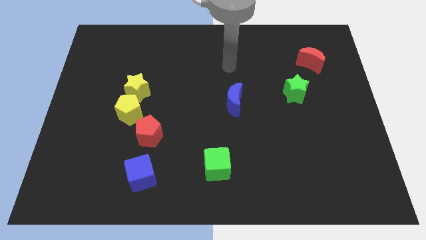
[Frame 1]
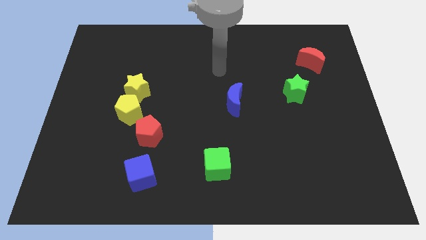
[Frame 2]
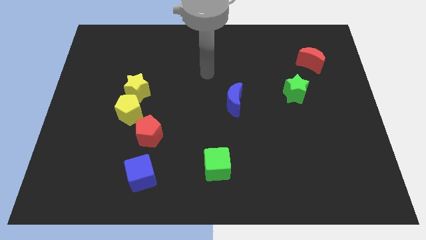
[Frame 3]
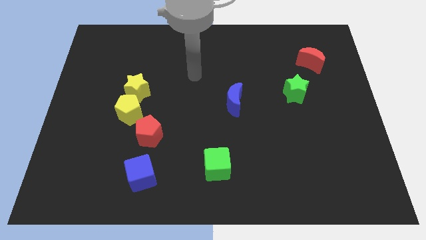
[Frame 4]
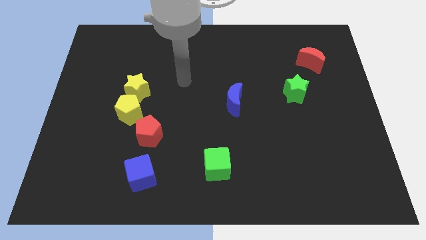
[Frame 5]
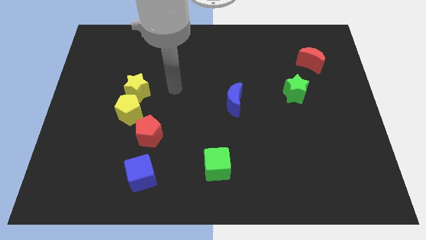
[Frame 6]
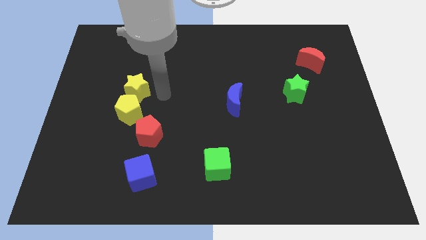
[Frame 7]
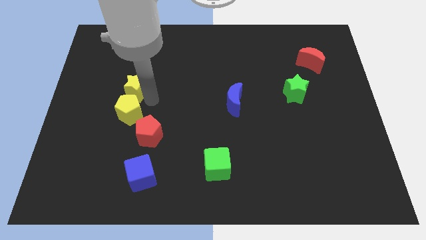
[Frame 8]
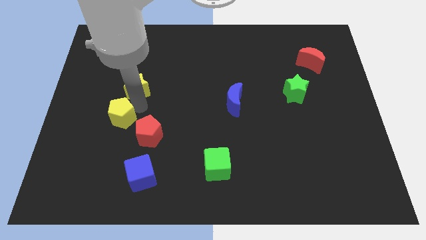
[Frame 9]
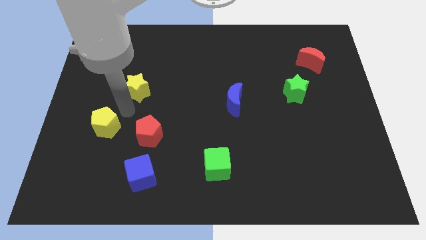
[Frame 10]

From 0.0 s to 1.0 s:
pull the yellow star apart from the yellow pentagon

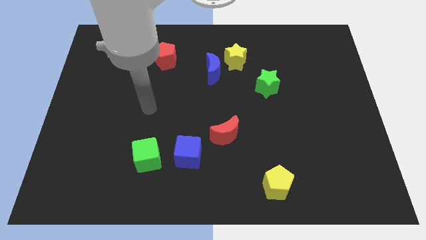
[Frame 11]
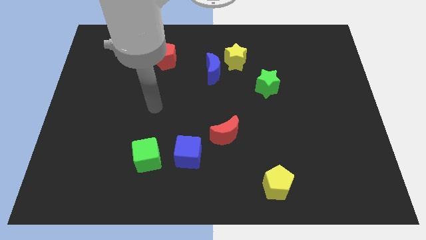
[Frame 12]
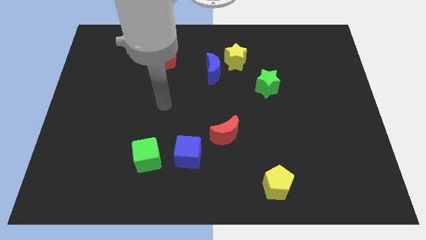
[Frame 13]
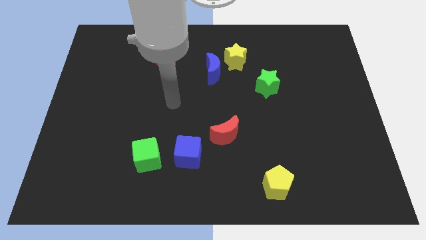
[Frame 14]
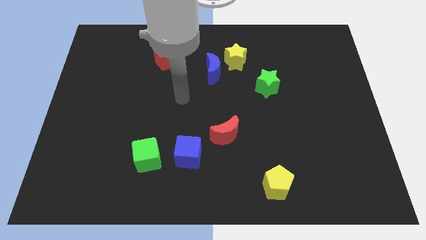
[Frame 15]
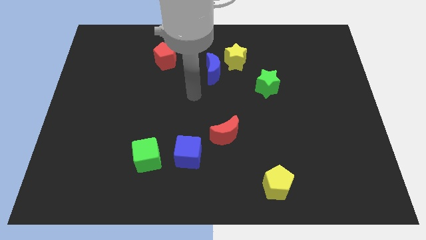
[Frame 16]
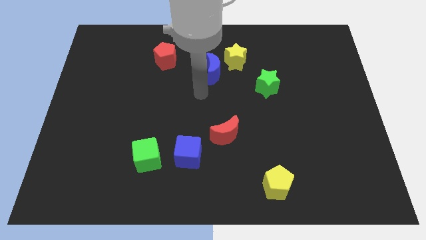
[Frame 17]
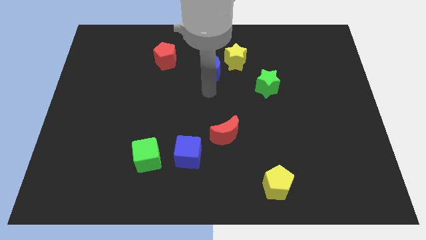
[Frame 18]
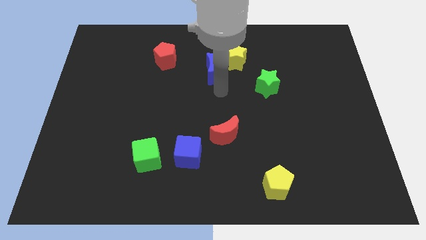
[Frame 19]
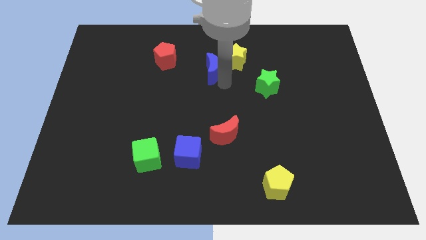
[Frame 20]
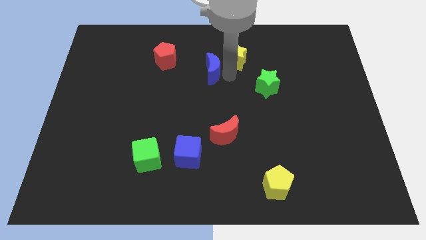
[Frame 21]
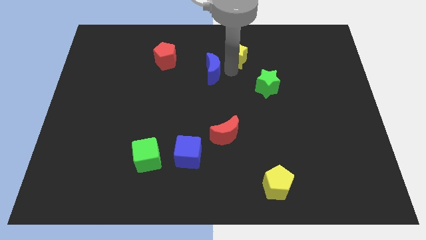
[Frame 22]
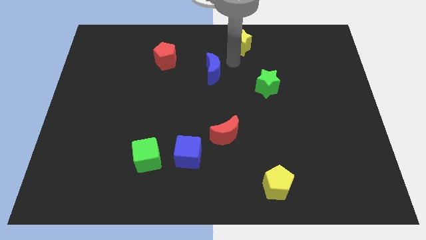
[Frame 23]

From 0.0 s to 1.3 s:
pull the blue moon apart from the yellow star

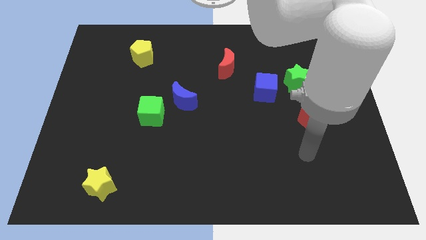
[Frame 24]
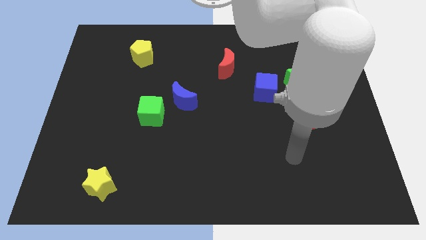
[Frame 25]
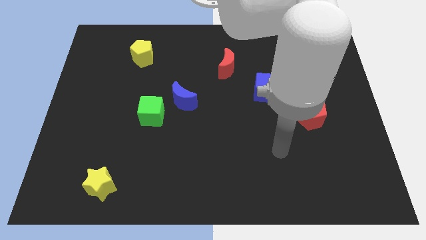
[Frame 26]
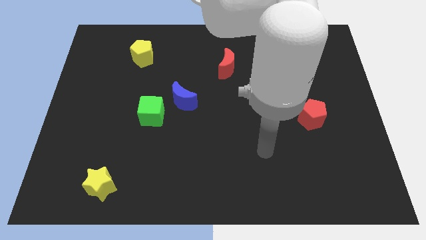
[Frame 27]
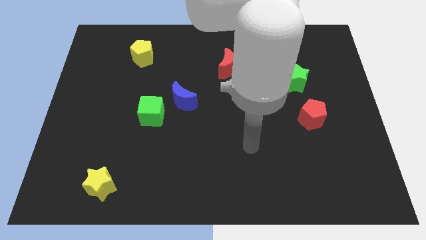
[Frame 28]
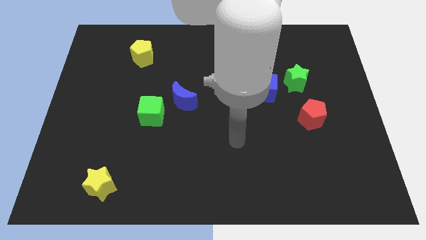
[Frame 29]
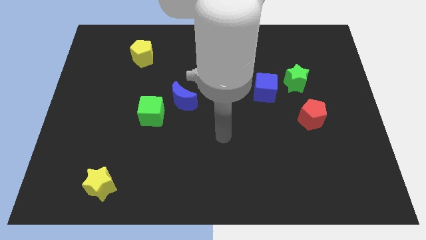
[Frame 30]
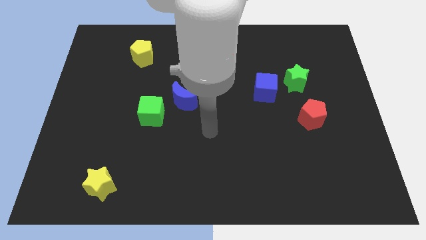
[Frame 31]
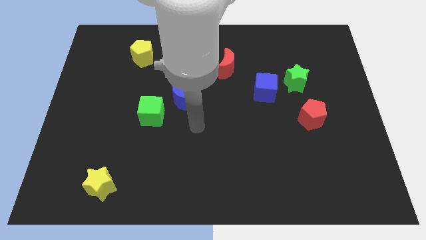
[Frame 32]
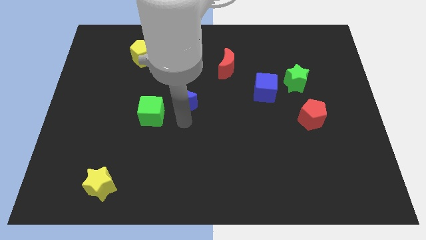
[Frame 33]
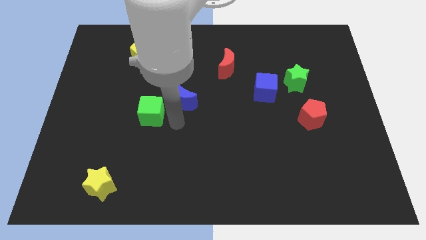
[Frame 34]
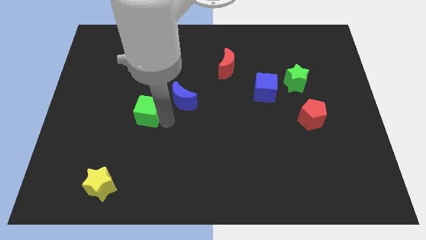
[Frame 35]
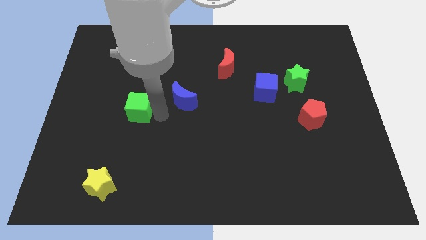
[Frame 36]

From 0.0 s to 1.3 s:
move the blue moon away from the green cube

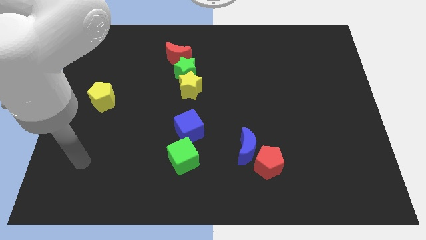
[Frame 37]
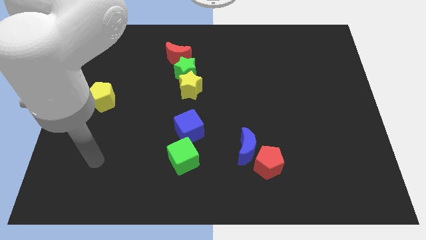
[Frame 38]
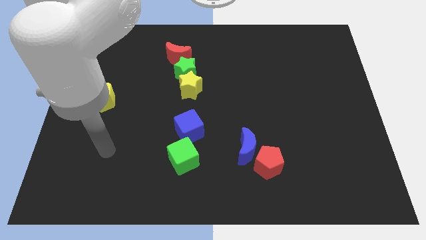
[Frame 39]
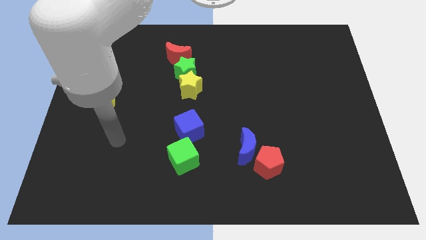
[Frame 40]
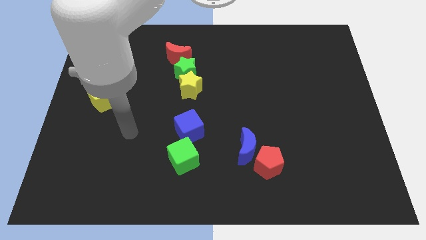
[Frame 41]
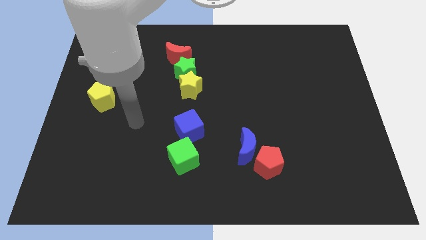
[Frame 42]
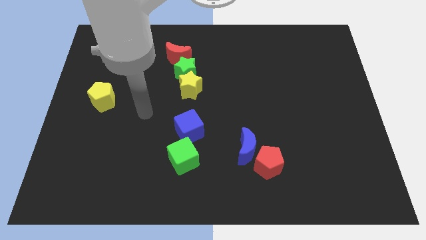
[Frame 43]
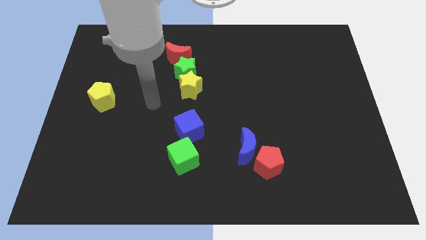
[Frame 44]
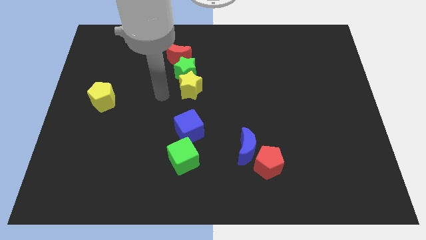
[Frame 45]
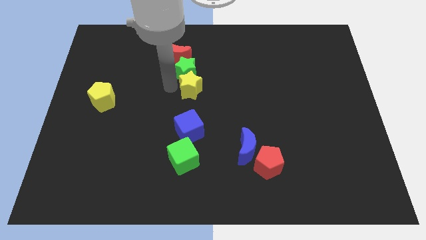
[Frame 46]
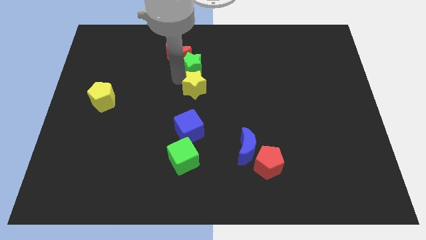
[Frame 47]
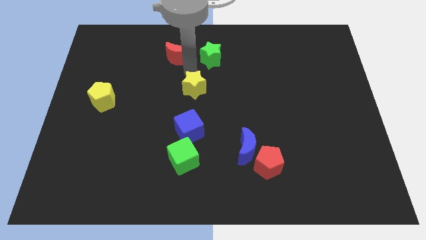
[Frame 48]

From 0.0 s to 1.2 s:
move the yellow star away from the green star

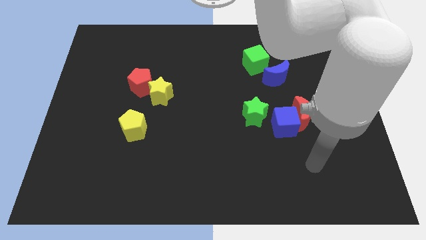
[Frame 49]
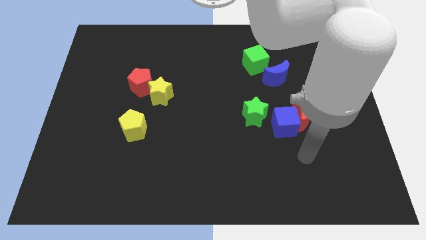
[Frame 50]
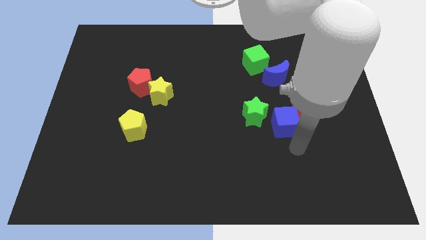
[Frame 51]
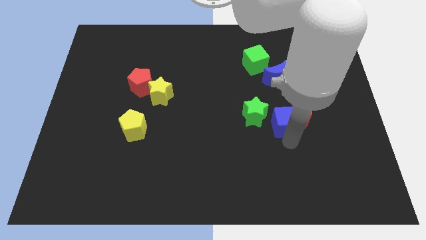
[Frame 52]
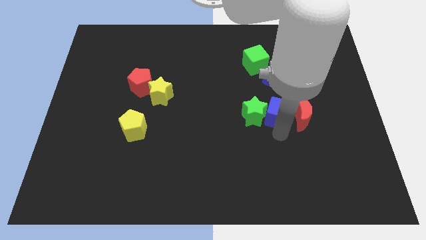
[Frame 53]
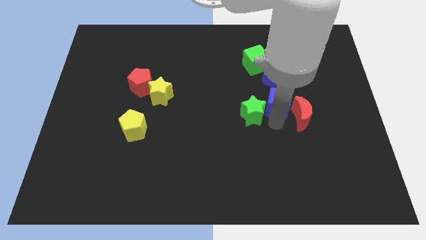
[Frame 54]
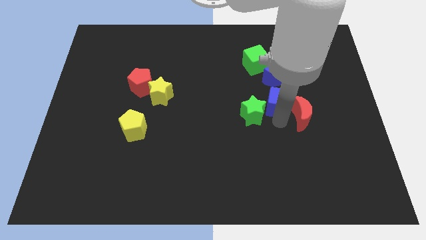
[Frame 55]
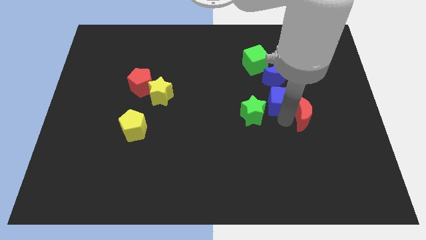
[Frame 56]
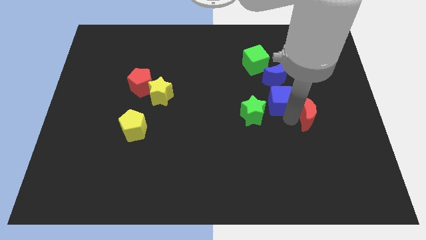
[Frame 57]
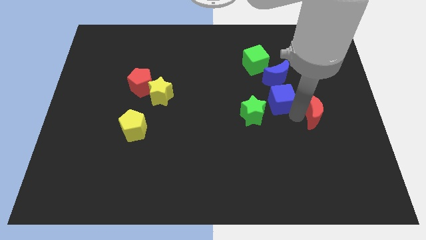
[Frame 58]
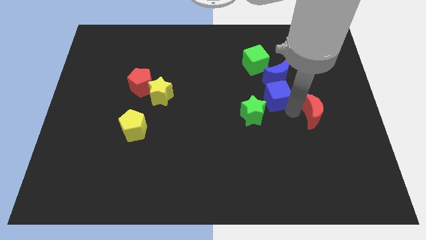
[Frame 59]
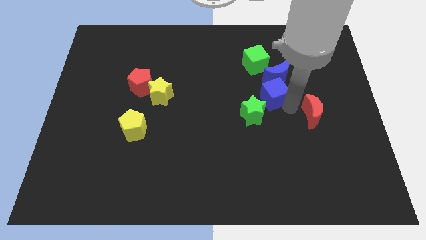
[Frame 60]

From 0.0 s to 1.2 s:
pull the red moon apart from the blue cube

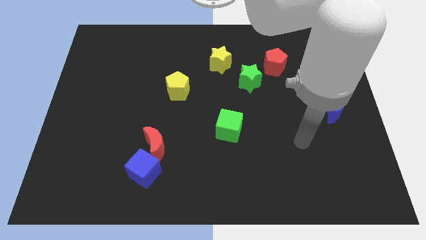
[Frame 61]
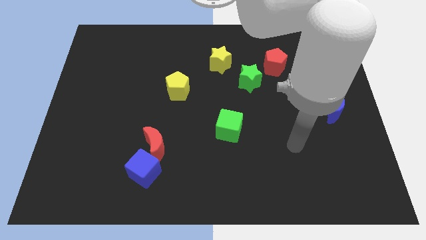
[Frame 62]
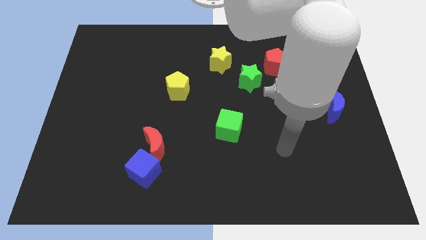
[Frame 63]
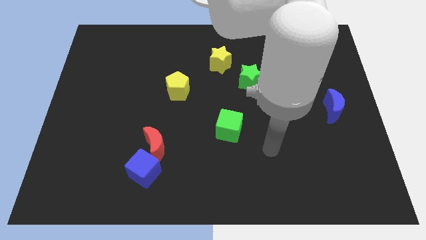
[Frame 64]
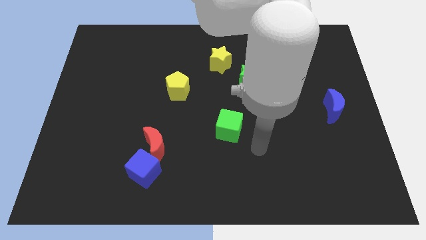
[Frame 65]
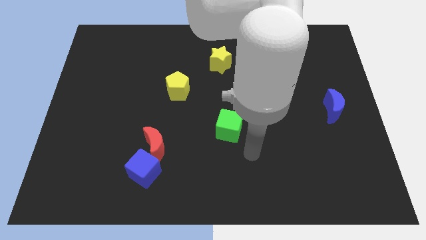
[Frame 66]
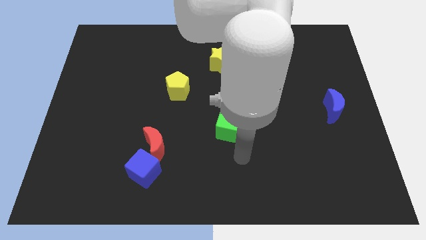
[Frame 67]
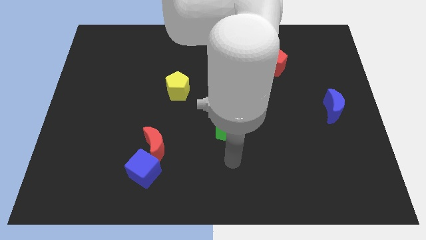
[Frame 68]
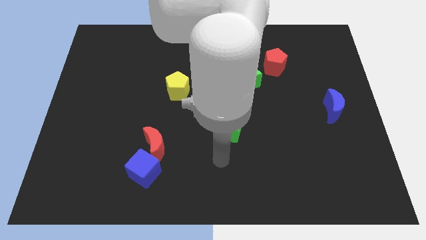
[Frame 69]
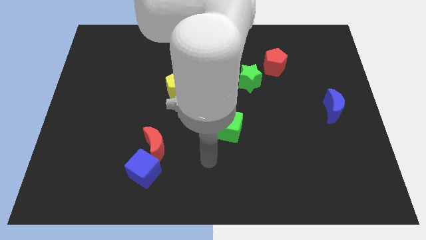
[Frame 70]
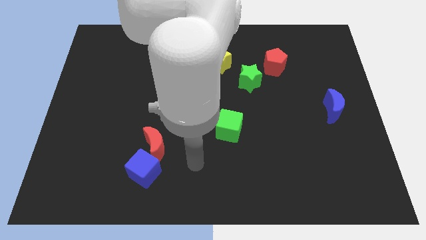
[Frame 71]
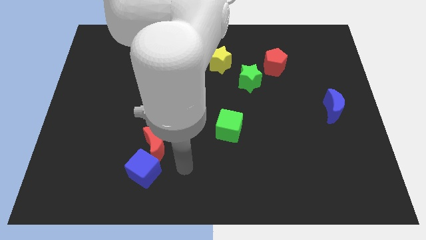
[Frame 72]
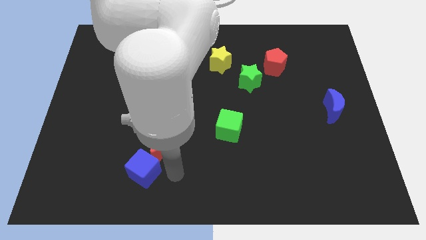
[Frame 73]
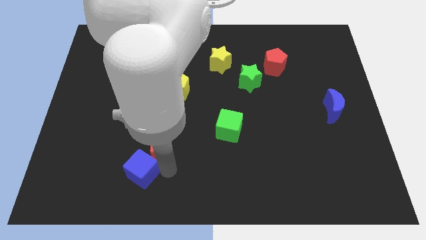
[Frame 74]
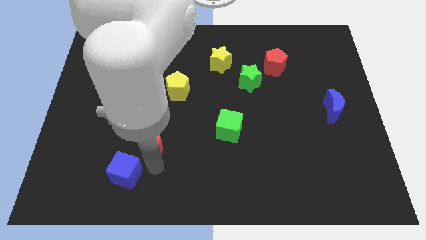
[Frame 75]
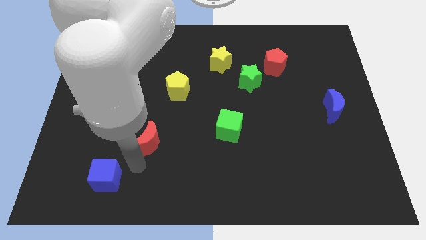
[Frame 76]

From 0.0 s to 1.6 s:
separate the red moon from the blue cube

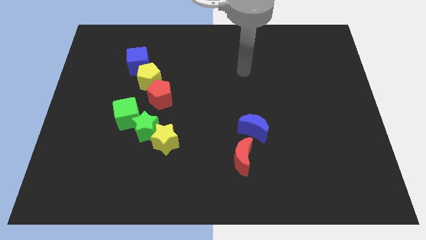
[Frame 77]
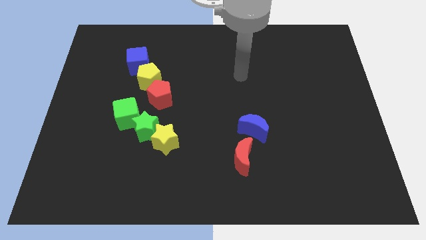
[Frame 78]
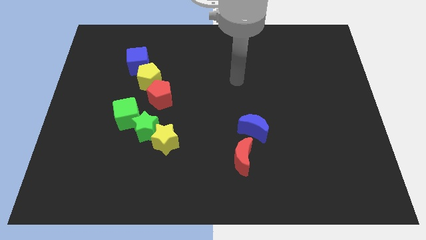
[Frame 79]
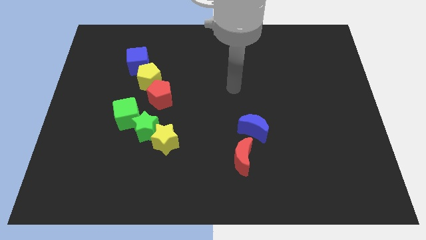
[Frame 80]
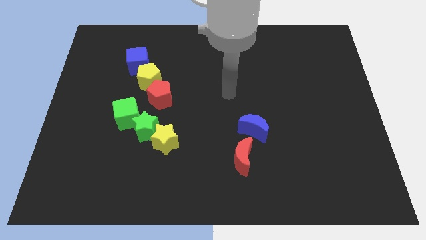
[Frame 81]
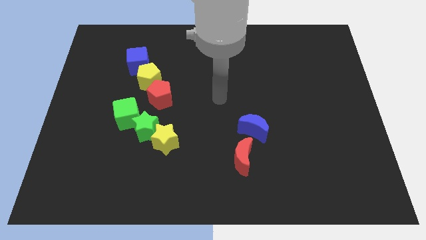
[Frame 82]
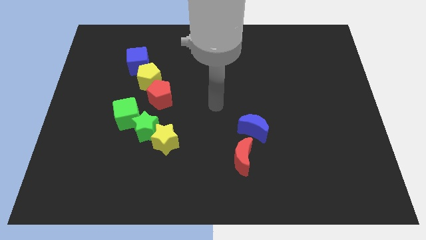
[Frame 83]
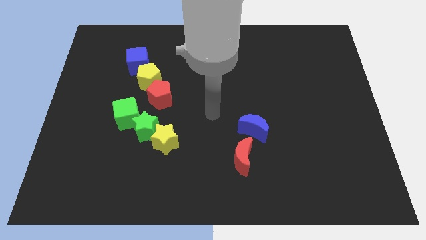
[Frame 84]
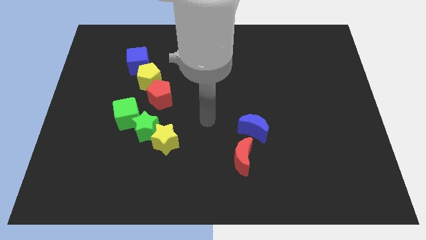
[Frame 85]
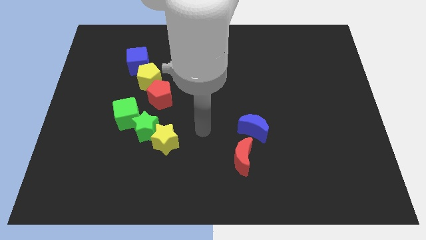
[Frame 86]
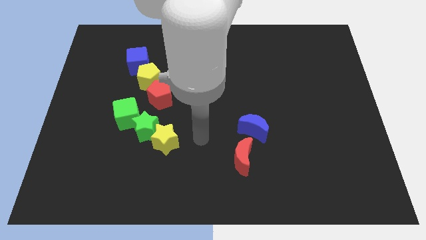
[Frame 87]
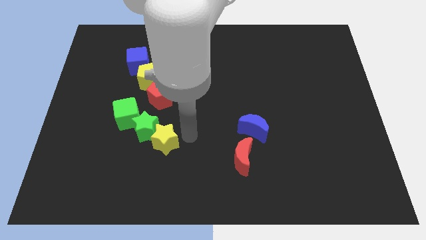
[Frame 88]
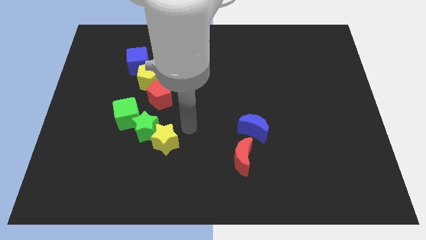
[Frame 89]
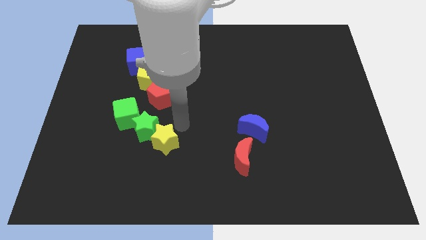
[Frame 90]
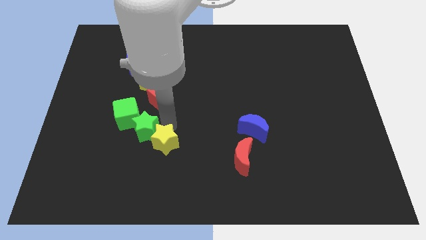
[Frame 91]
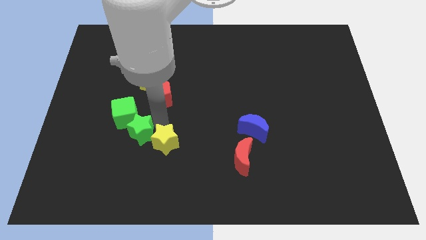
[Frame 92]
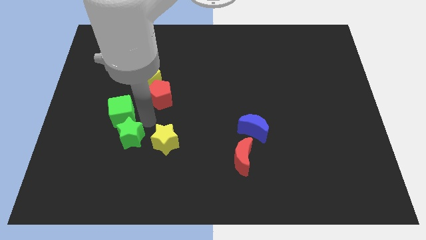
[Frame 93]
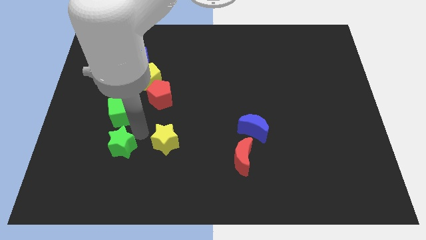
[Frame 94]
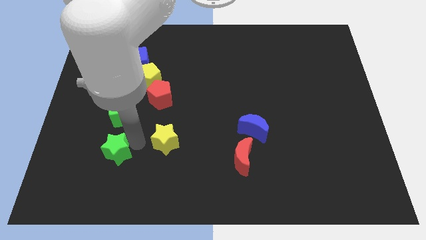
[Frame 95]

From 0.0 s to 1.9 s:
separate the yellow star from the green star
